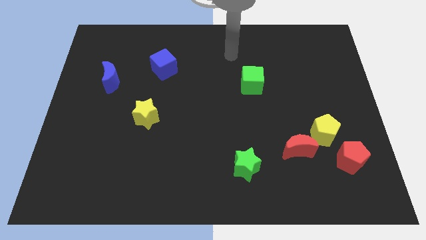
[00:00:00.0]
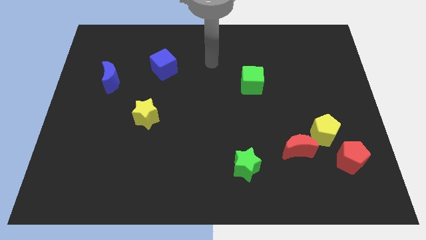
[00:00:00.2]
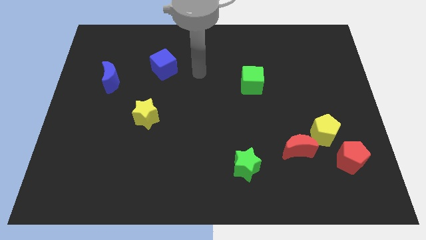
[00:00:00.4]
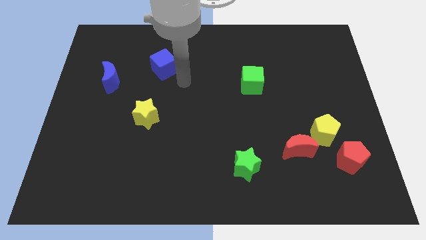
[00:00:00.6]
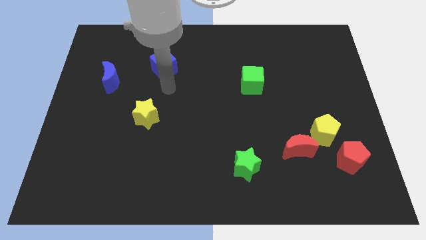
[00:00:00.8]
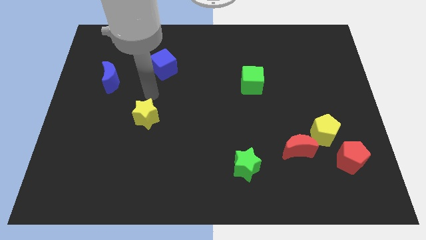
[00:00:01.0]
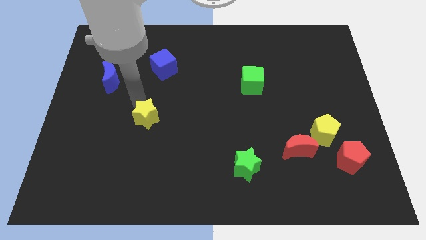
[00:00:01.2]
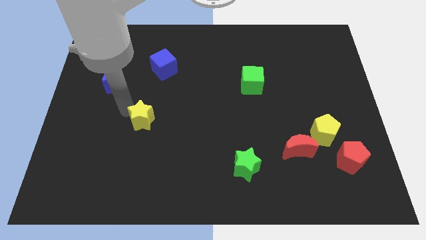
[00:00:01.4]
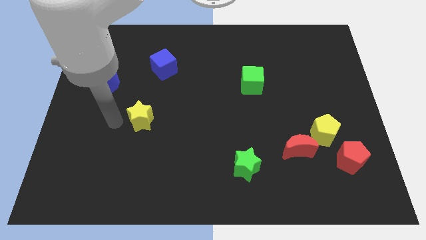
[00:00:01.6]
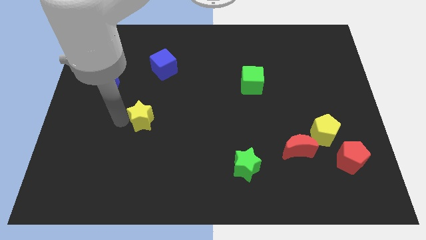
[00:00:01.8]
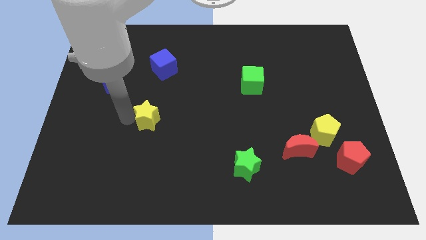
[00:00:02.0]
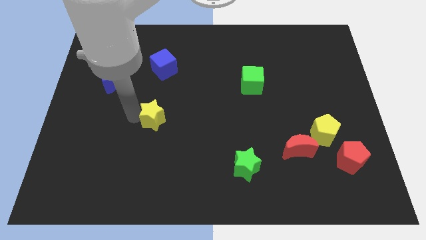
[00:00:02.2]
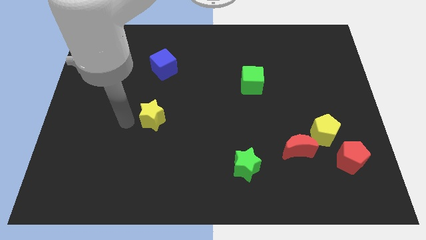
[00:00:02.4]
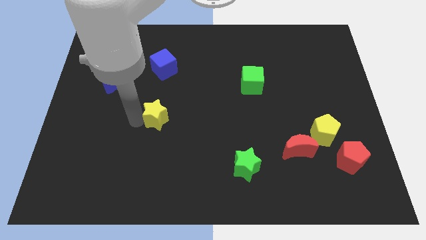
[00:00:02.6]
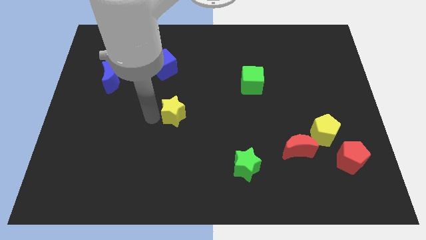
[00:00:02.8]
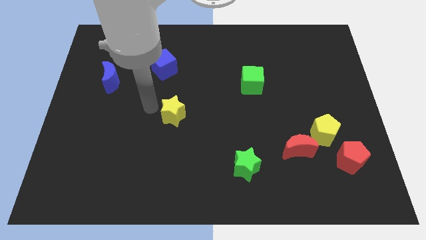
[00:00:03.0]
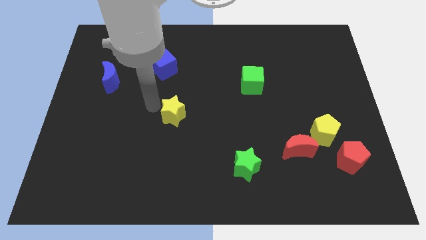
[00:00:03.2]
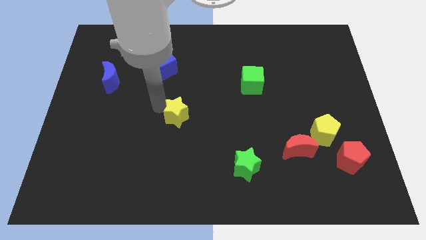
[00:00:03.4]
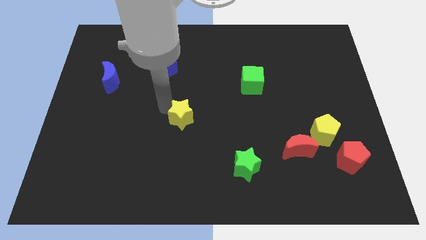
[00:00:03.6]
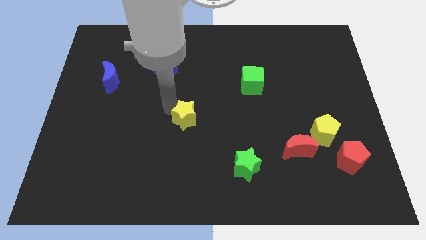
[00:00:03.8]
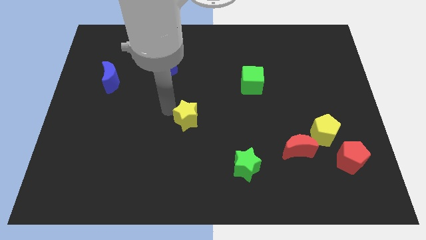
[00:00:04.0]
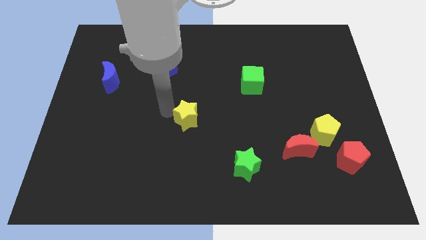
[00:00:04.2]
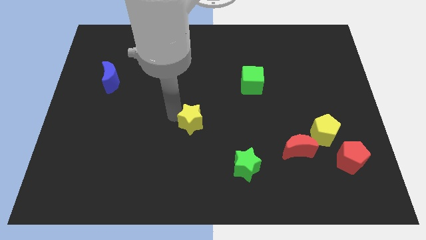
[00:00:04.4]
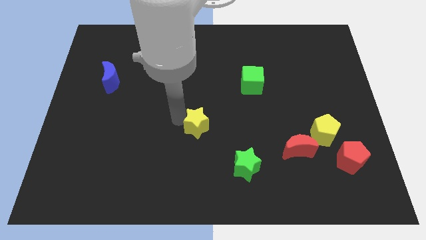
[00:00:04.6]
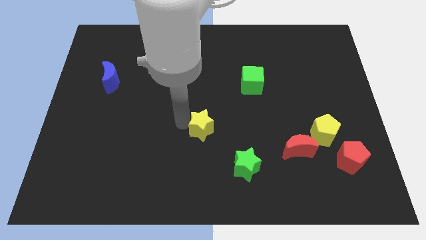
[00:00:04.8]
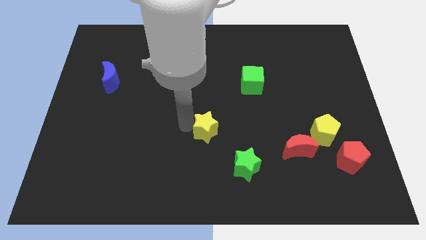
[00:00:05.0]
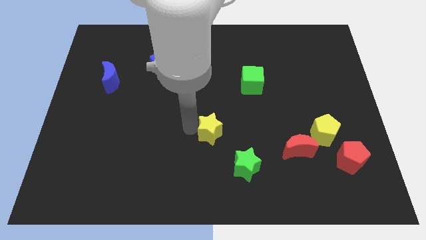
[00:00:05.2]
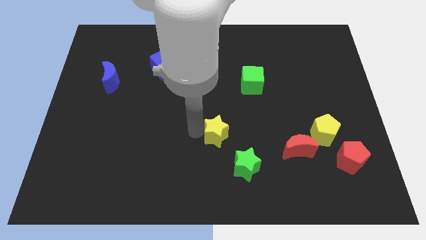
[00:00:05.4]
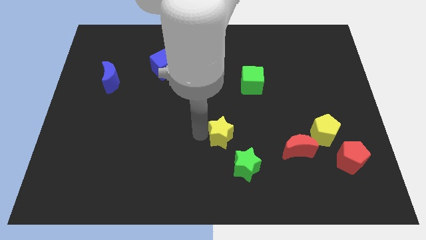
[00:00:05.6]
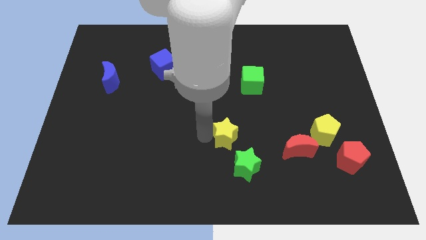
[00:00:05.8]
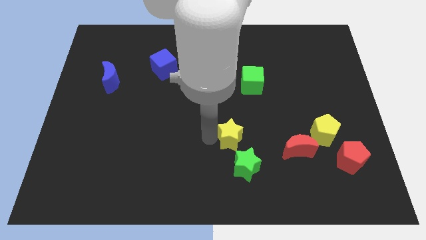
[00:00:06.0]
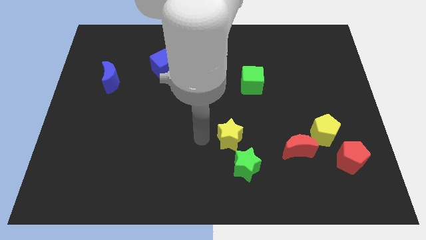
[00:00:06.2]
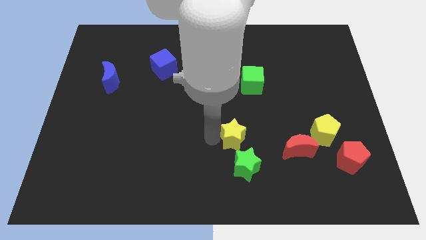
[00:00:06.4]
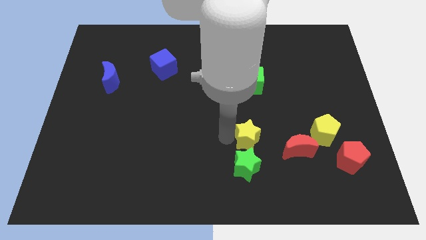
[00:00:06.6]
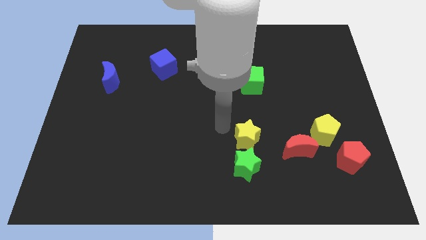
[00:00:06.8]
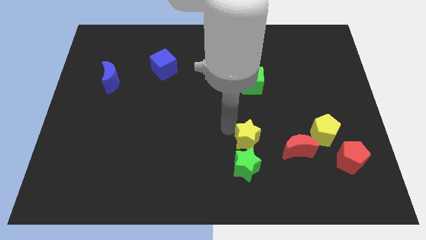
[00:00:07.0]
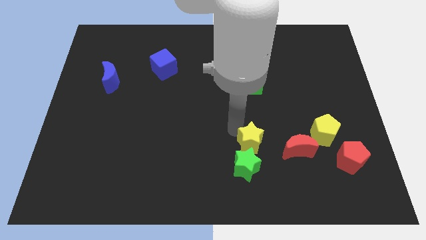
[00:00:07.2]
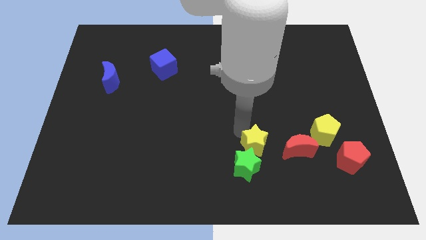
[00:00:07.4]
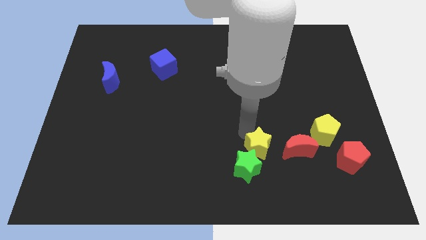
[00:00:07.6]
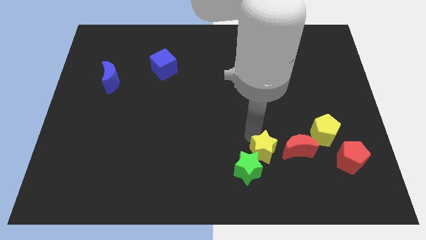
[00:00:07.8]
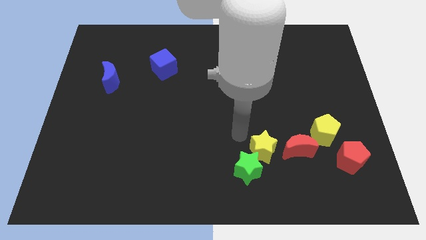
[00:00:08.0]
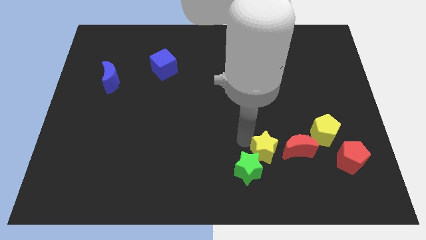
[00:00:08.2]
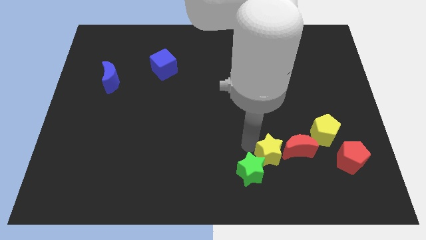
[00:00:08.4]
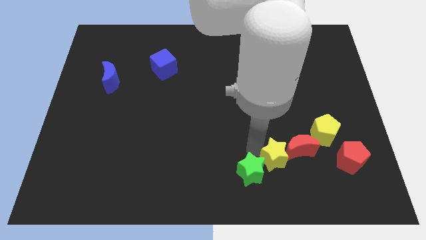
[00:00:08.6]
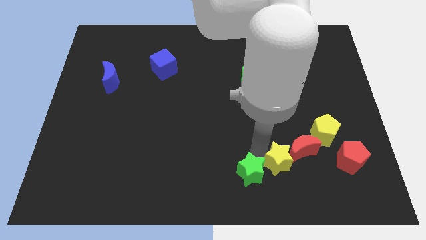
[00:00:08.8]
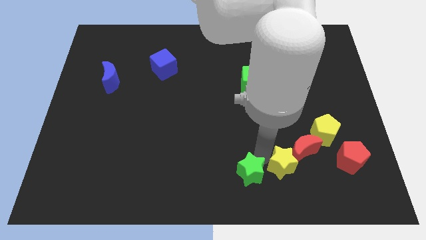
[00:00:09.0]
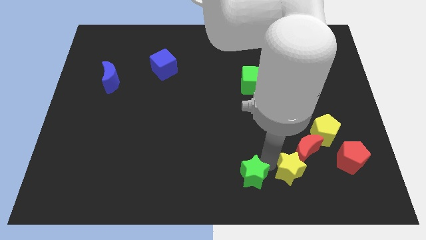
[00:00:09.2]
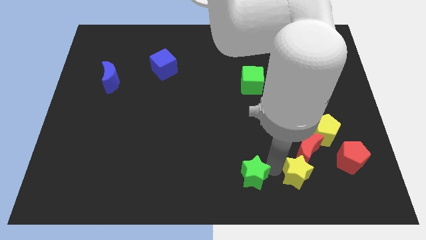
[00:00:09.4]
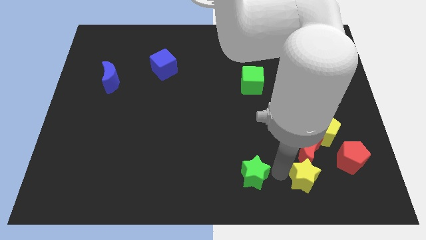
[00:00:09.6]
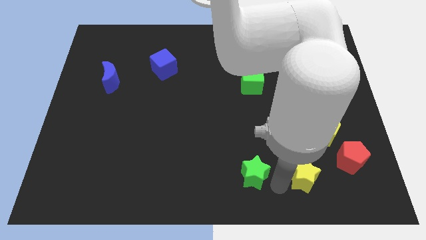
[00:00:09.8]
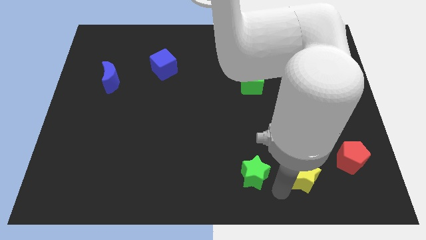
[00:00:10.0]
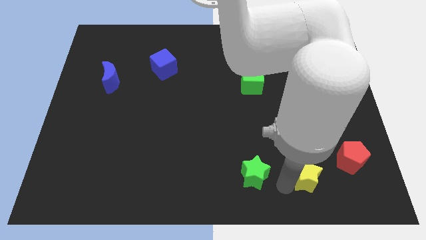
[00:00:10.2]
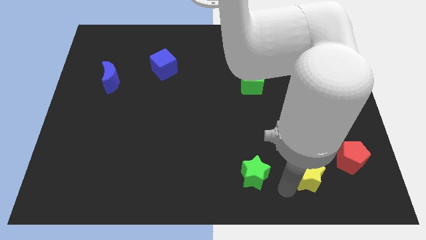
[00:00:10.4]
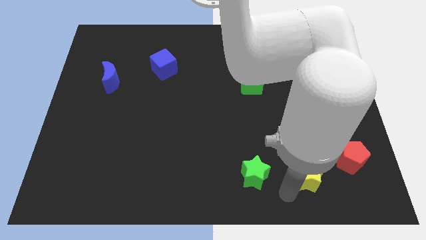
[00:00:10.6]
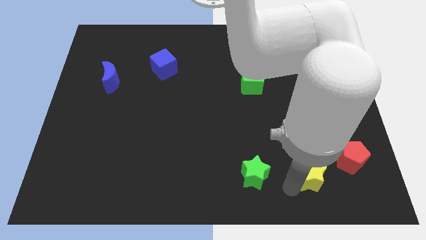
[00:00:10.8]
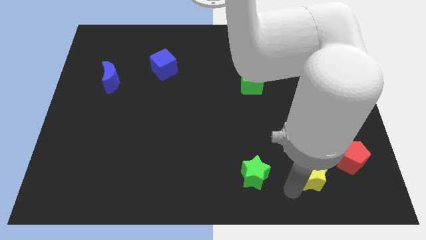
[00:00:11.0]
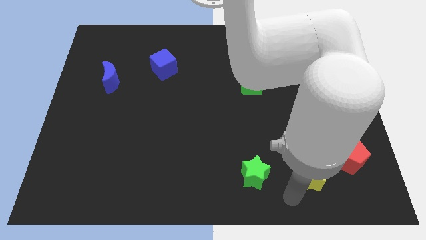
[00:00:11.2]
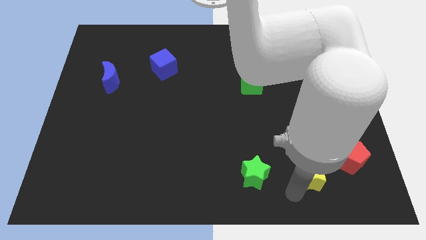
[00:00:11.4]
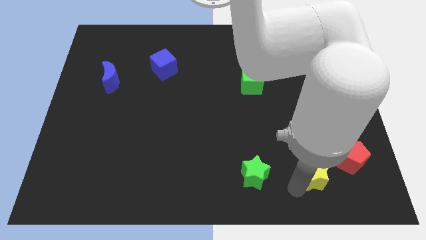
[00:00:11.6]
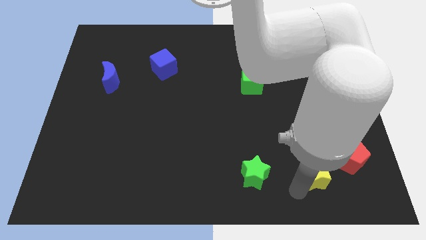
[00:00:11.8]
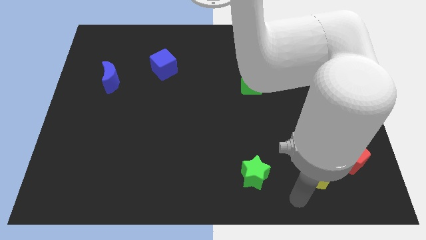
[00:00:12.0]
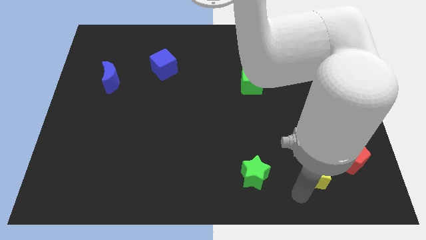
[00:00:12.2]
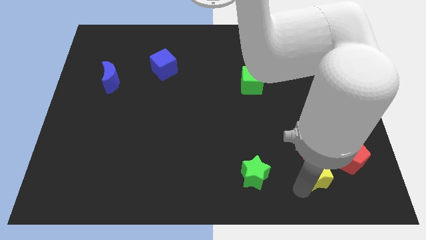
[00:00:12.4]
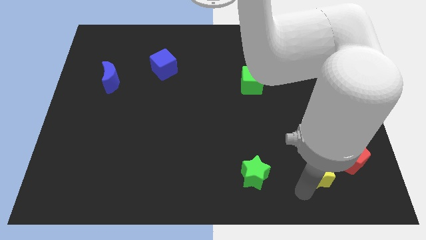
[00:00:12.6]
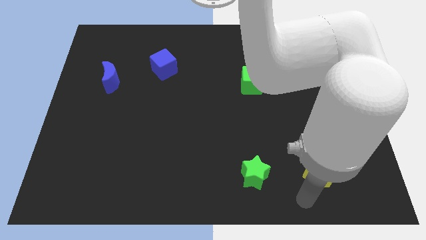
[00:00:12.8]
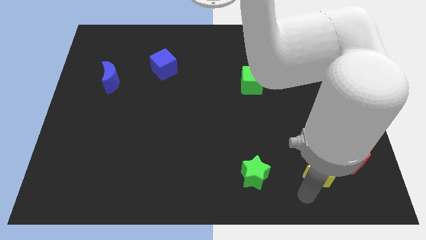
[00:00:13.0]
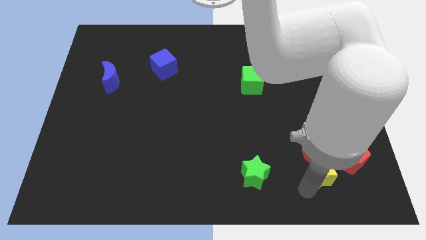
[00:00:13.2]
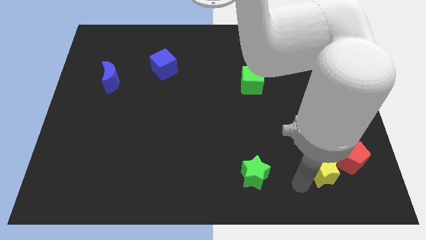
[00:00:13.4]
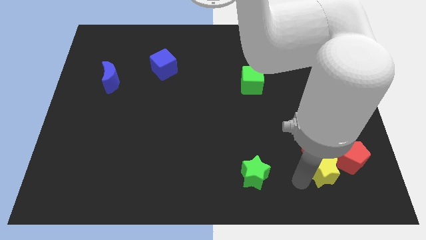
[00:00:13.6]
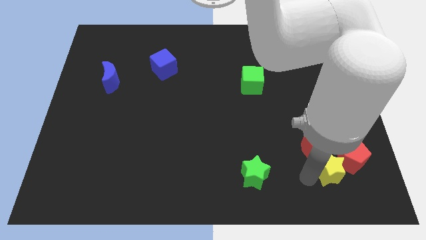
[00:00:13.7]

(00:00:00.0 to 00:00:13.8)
slide the yellow star to the red pentagon

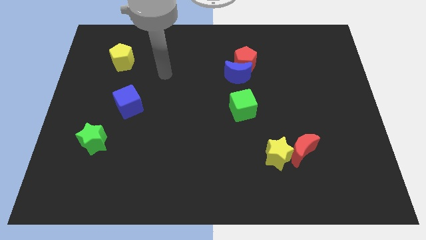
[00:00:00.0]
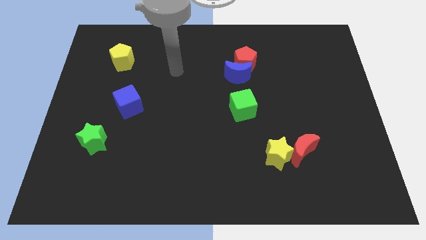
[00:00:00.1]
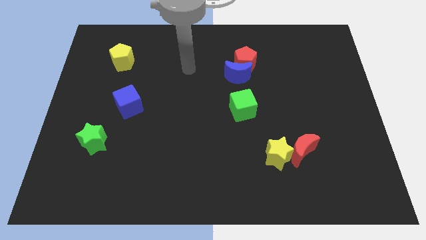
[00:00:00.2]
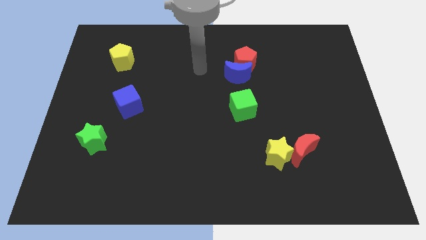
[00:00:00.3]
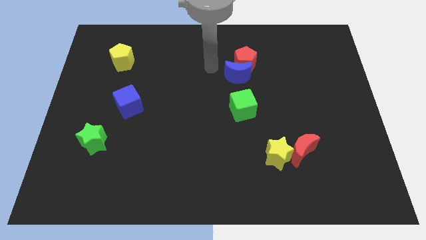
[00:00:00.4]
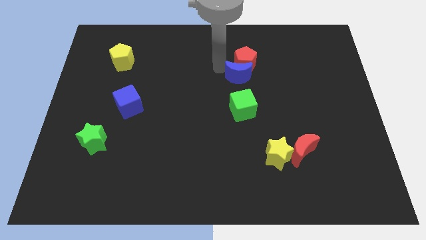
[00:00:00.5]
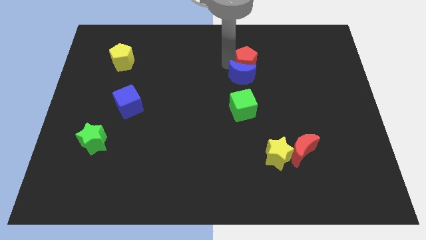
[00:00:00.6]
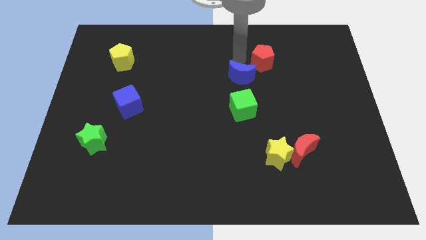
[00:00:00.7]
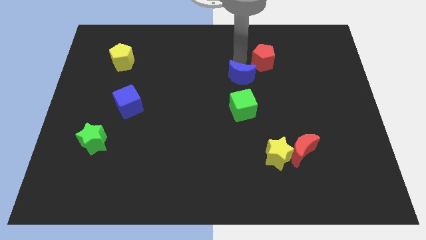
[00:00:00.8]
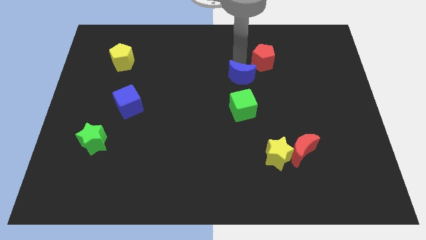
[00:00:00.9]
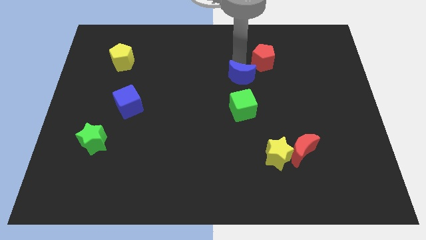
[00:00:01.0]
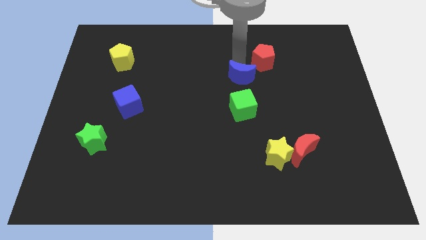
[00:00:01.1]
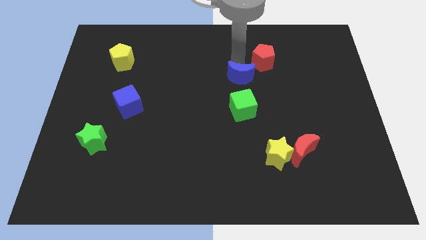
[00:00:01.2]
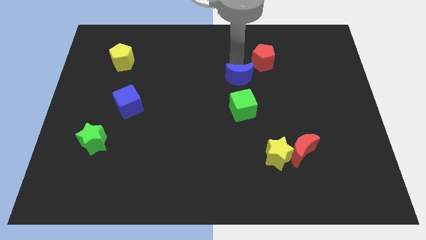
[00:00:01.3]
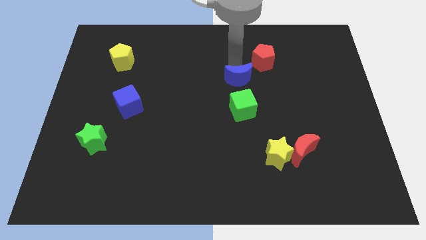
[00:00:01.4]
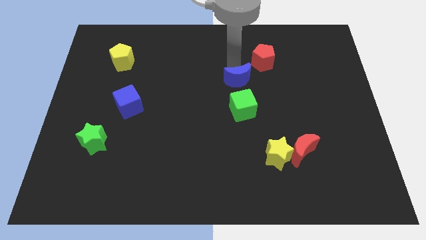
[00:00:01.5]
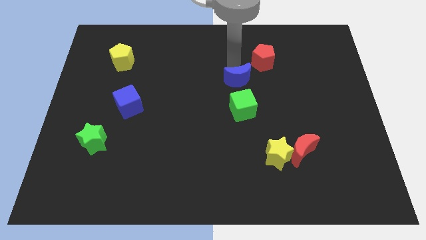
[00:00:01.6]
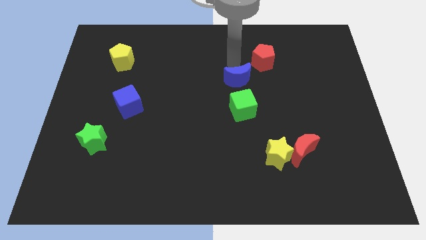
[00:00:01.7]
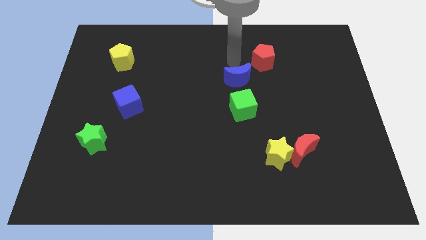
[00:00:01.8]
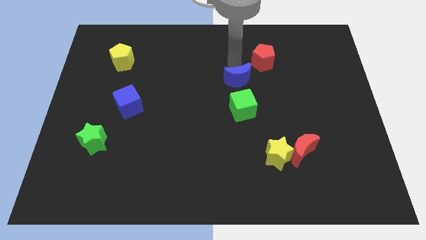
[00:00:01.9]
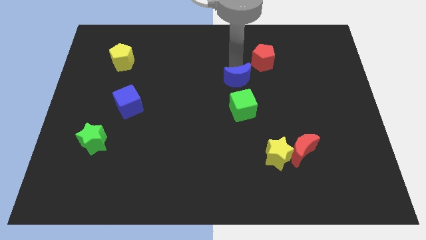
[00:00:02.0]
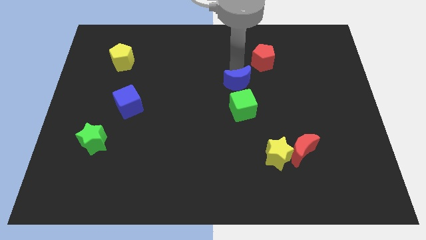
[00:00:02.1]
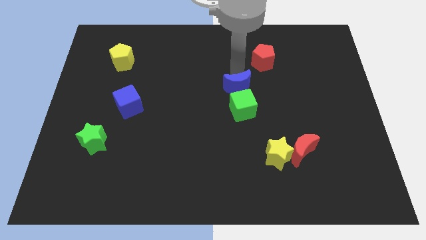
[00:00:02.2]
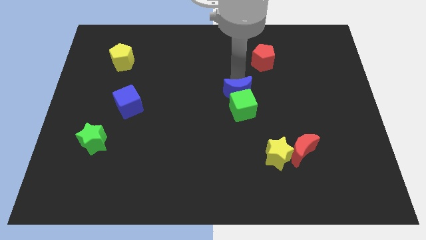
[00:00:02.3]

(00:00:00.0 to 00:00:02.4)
slide the blue moon to the green cube
